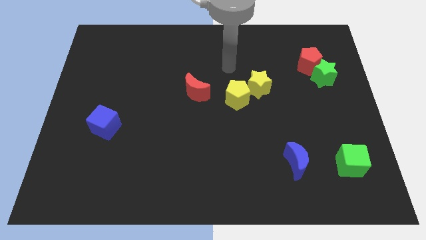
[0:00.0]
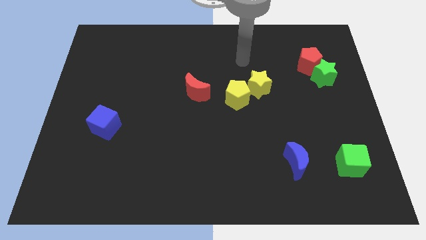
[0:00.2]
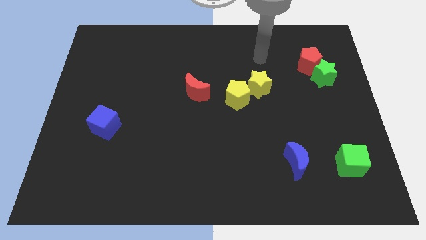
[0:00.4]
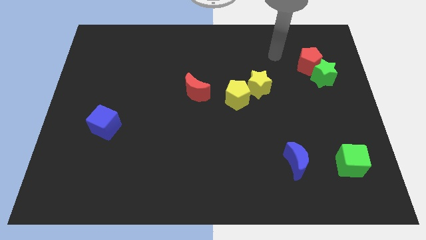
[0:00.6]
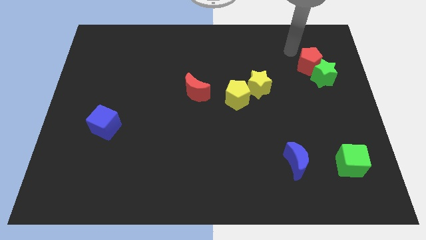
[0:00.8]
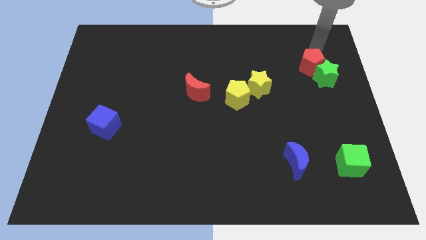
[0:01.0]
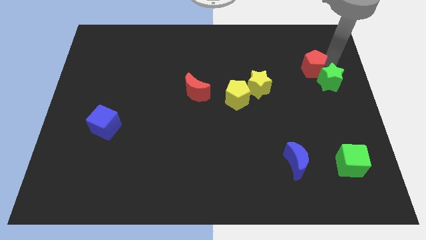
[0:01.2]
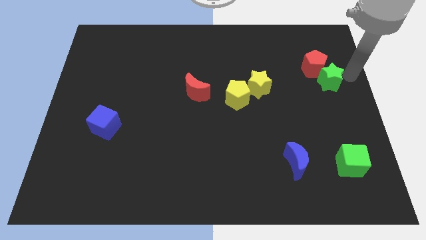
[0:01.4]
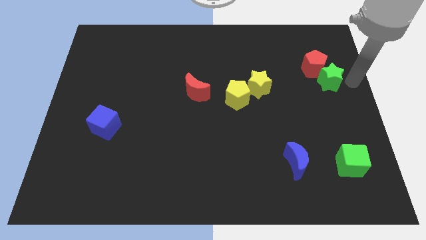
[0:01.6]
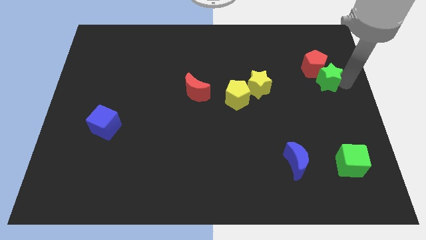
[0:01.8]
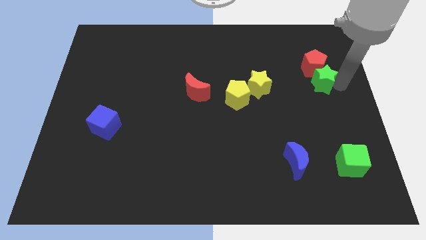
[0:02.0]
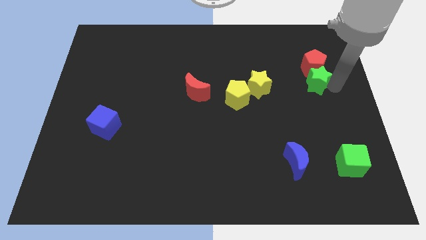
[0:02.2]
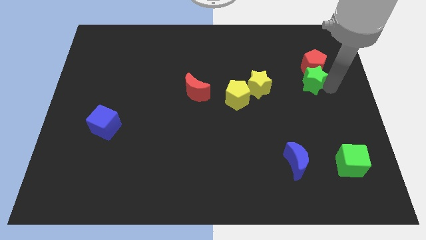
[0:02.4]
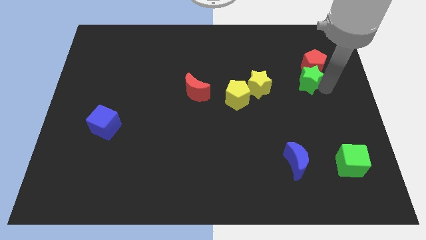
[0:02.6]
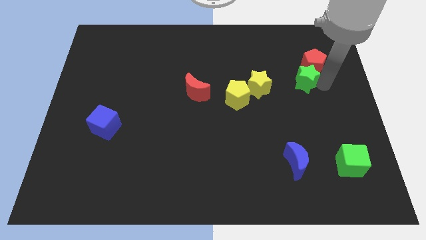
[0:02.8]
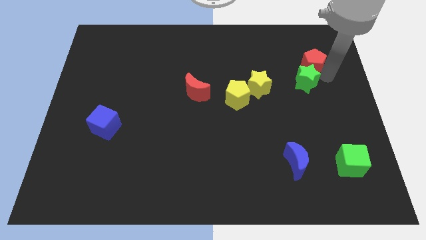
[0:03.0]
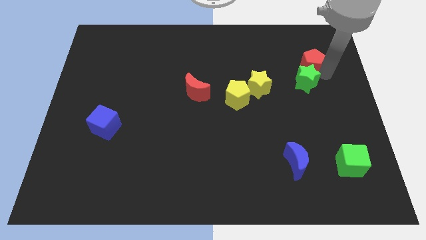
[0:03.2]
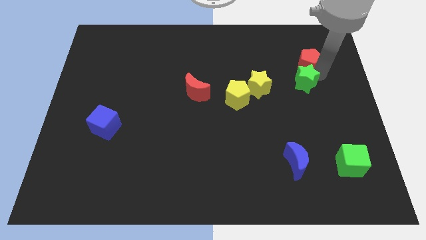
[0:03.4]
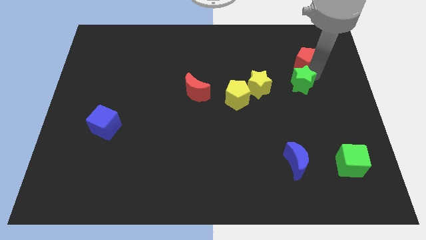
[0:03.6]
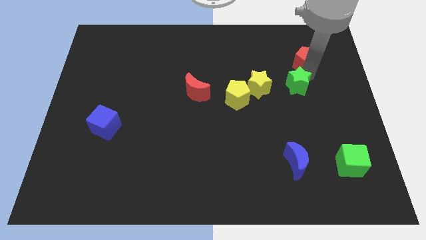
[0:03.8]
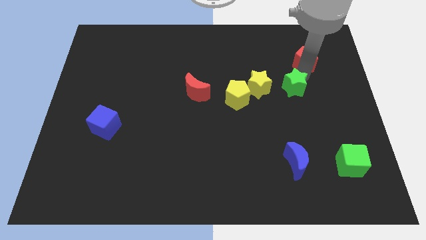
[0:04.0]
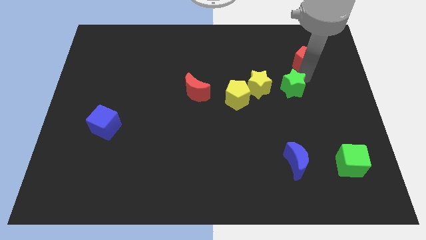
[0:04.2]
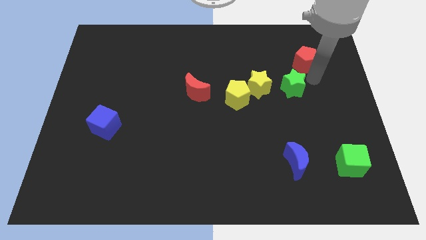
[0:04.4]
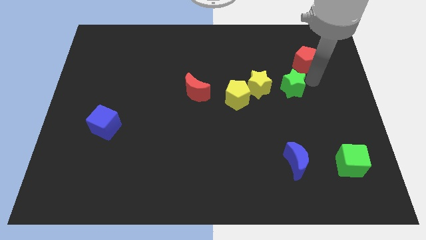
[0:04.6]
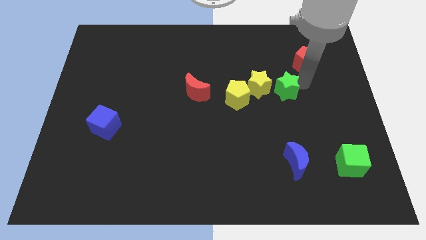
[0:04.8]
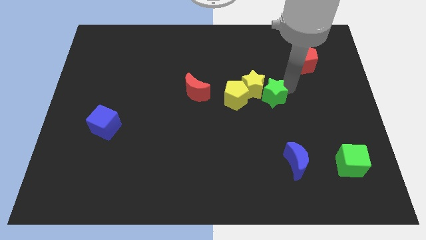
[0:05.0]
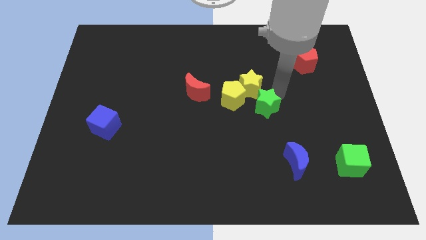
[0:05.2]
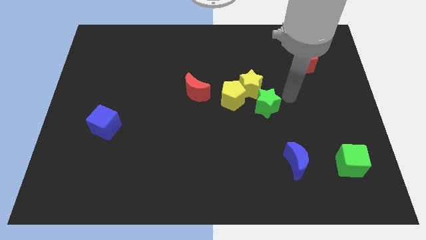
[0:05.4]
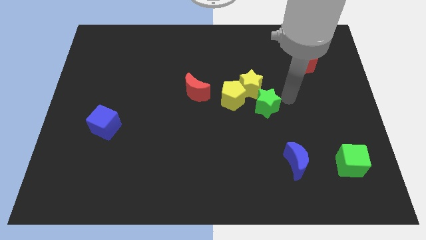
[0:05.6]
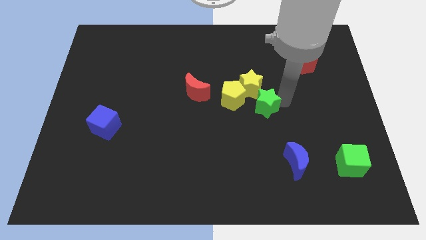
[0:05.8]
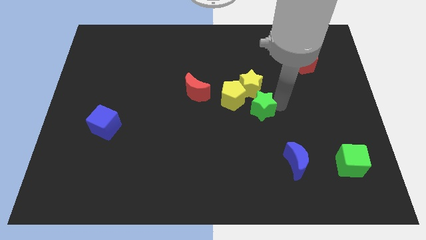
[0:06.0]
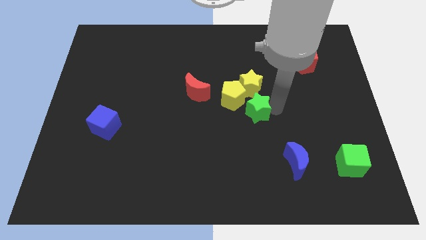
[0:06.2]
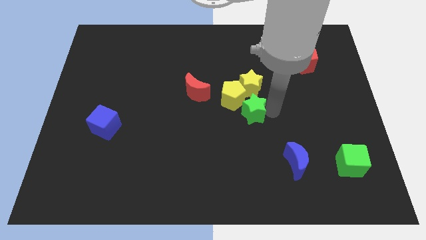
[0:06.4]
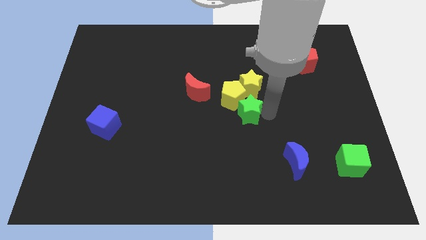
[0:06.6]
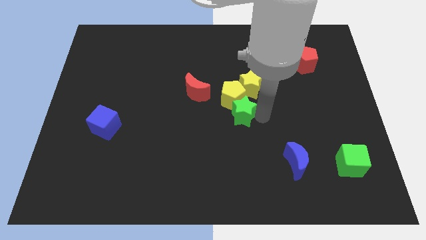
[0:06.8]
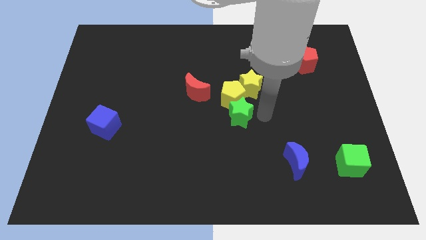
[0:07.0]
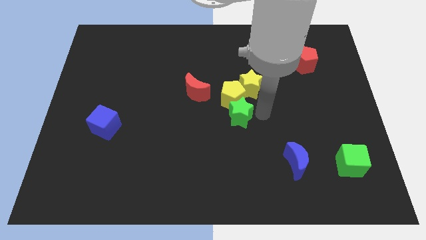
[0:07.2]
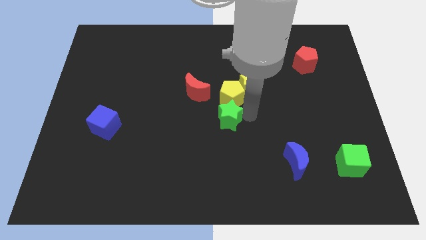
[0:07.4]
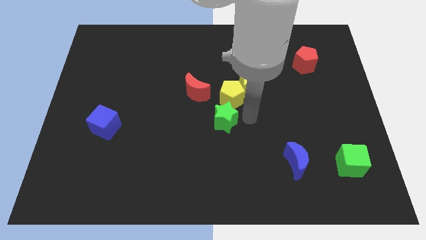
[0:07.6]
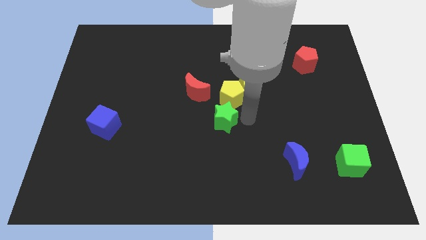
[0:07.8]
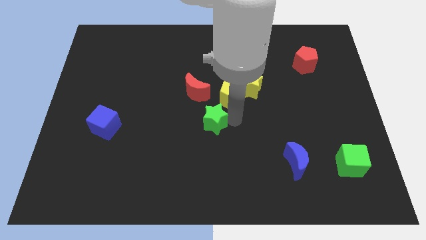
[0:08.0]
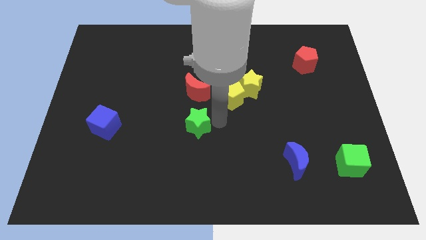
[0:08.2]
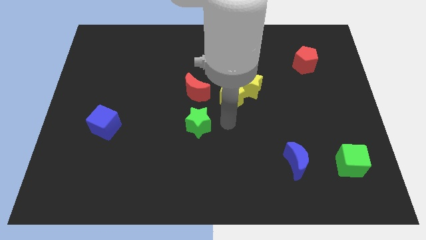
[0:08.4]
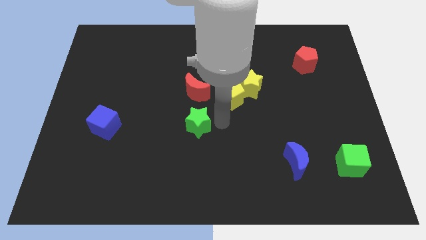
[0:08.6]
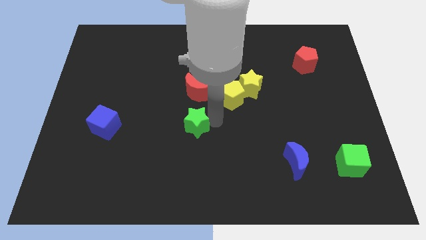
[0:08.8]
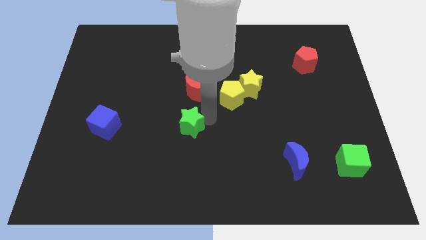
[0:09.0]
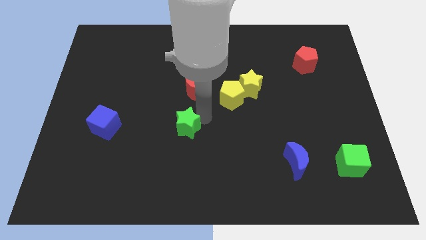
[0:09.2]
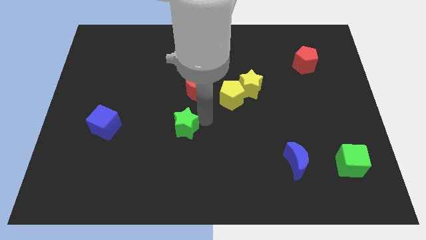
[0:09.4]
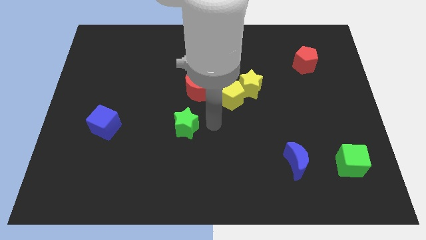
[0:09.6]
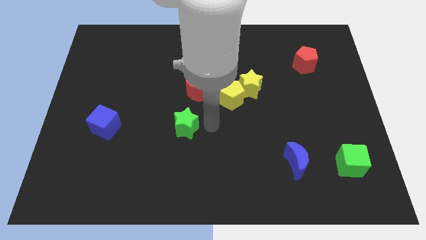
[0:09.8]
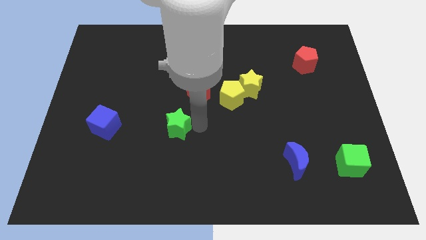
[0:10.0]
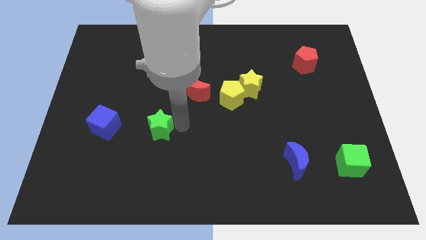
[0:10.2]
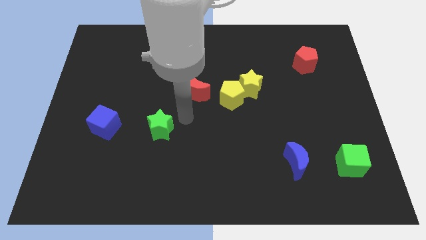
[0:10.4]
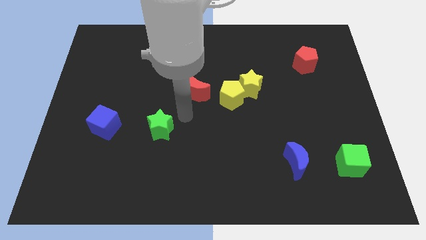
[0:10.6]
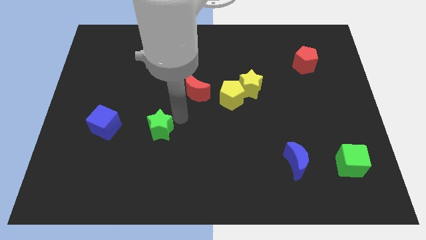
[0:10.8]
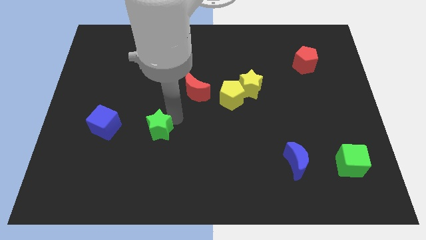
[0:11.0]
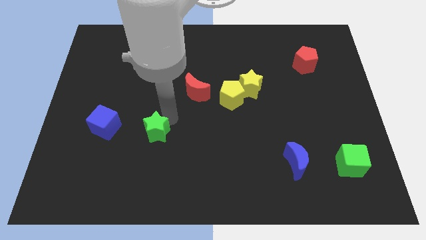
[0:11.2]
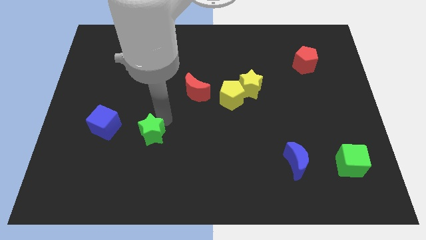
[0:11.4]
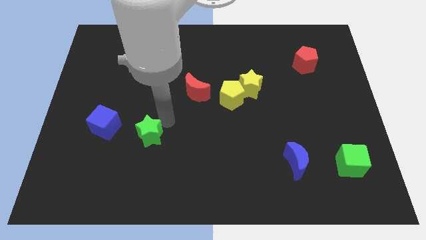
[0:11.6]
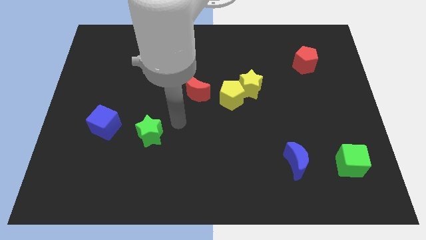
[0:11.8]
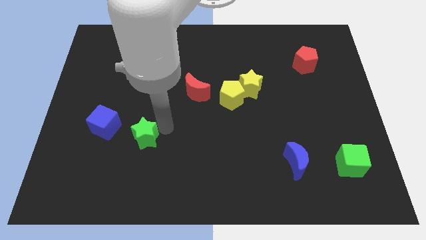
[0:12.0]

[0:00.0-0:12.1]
push the green star diagonally down and to the right of the blue cube

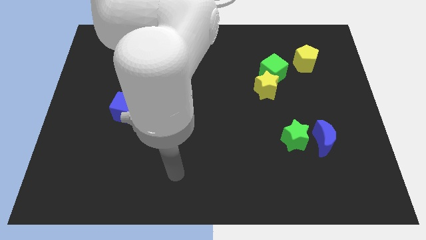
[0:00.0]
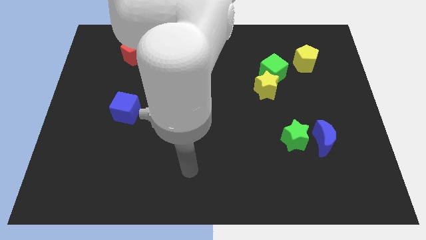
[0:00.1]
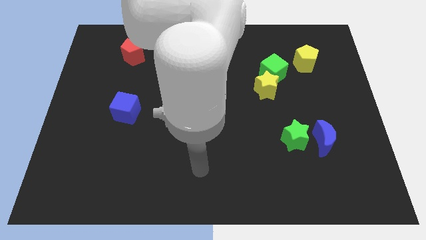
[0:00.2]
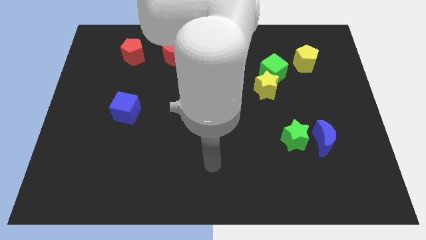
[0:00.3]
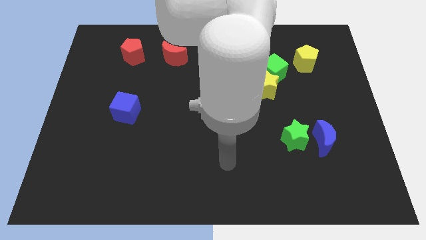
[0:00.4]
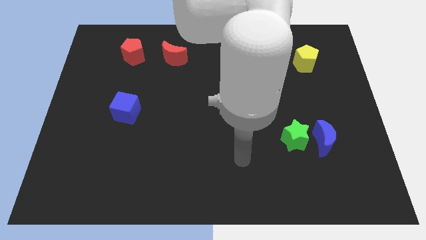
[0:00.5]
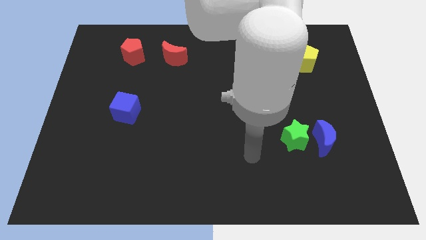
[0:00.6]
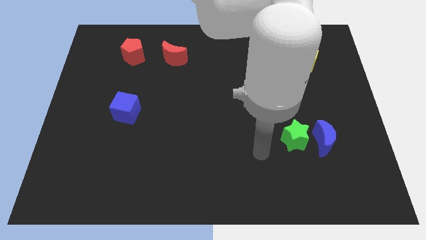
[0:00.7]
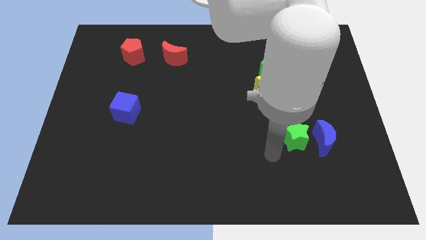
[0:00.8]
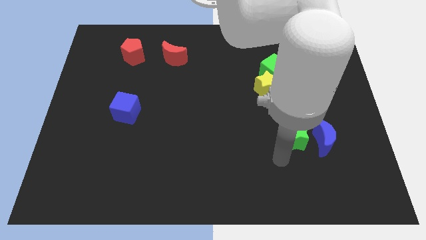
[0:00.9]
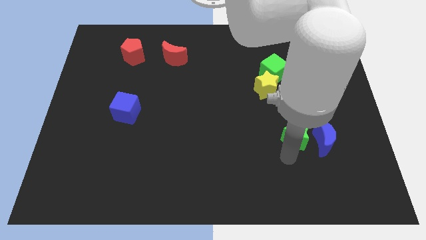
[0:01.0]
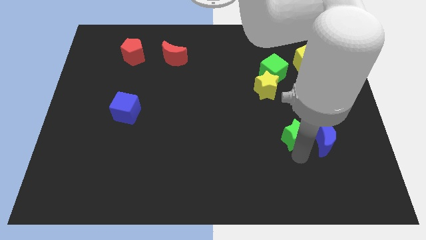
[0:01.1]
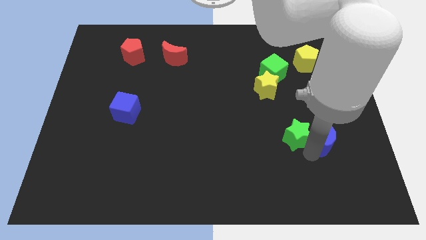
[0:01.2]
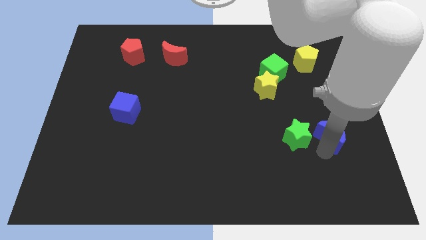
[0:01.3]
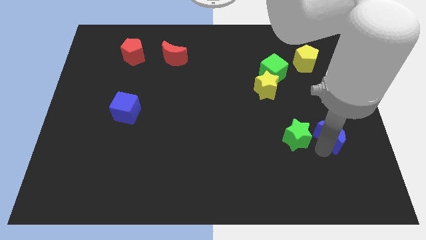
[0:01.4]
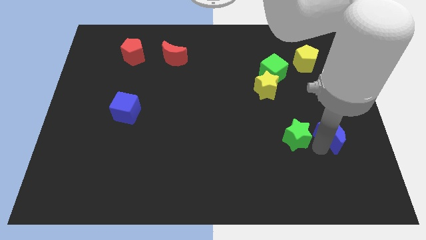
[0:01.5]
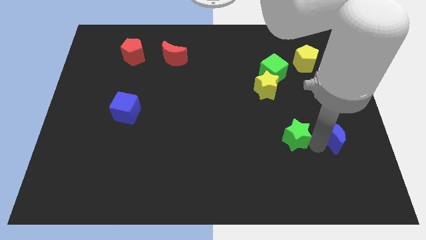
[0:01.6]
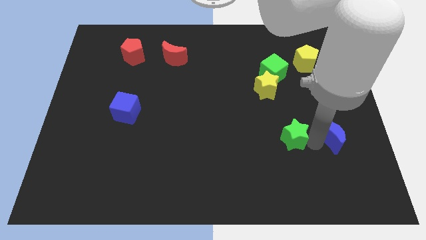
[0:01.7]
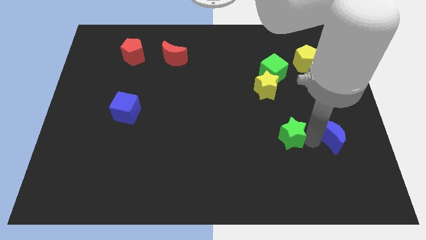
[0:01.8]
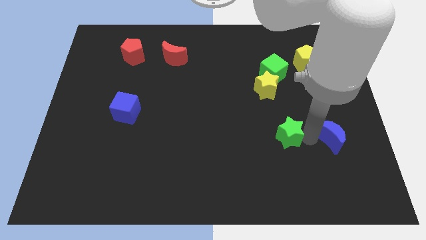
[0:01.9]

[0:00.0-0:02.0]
slide the green star to the bottom side of the yellow star
